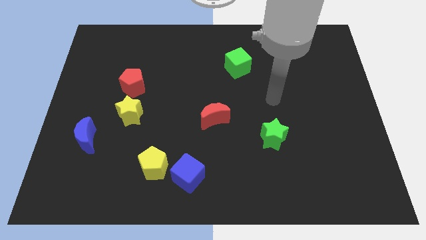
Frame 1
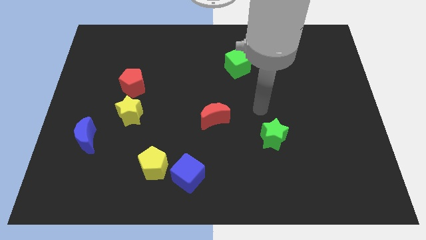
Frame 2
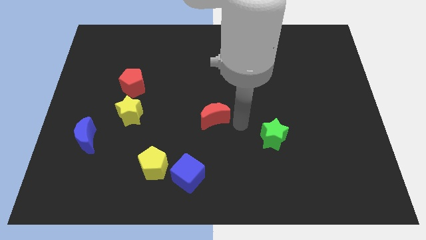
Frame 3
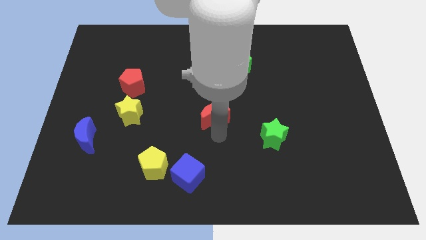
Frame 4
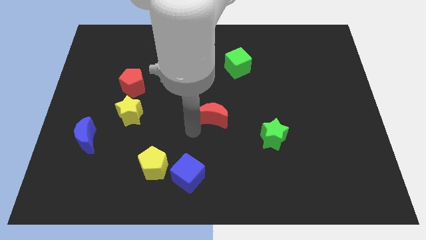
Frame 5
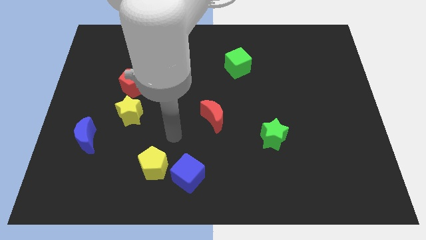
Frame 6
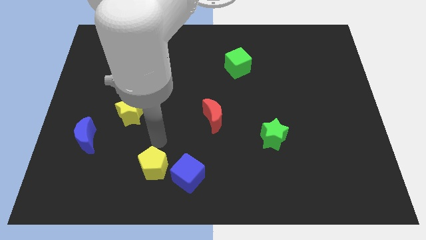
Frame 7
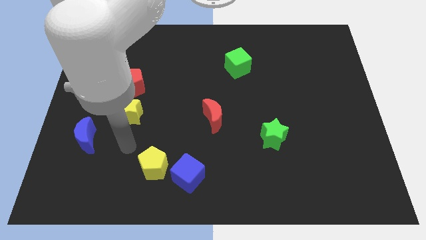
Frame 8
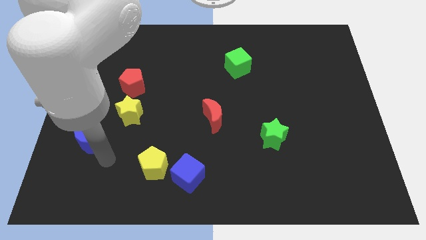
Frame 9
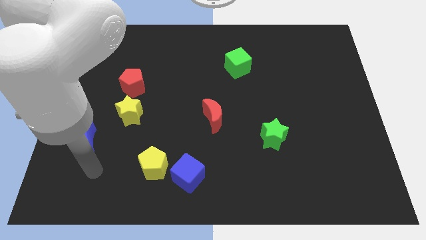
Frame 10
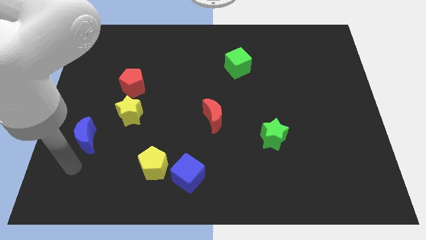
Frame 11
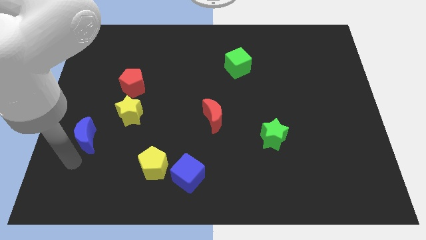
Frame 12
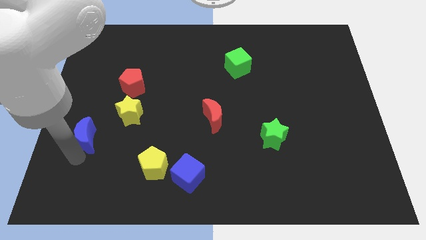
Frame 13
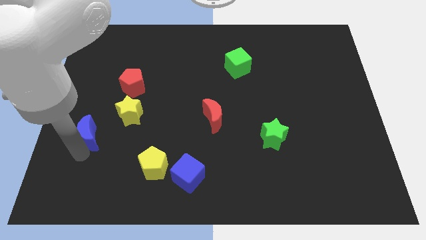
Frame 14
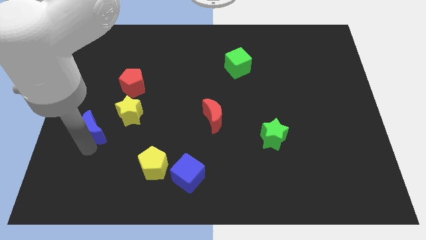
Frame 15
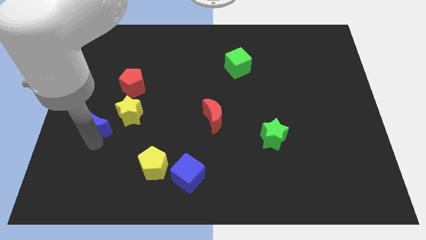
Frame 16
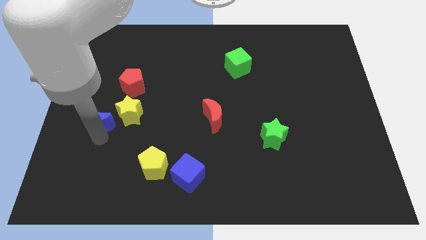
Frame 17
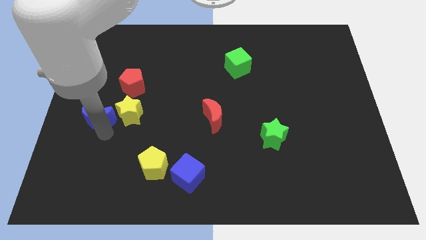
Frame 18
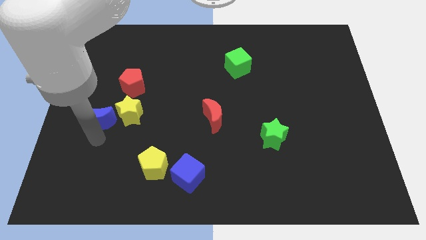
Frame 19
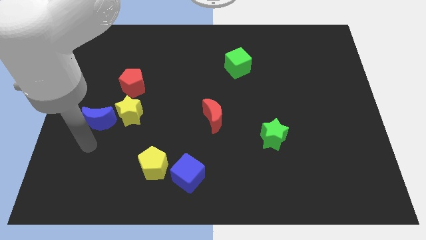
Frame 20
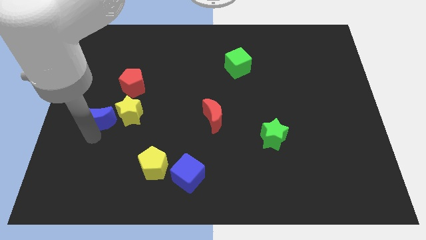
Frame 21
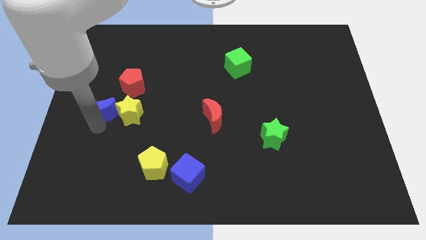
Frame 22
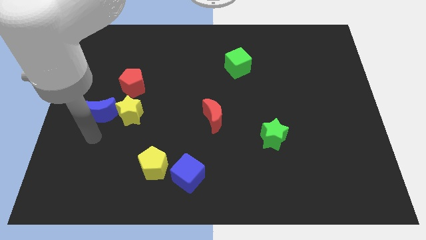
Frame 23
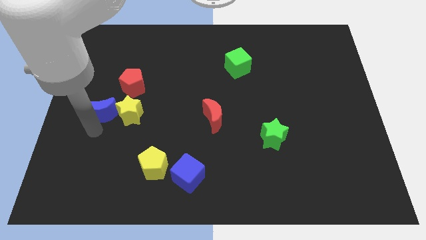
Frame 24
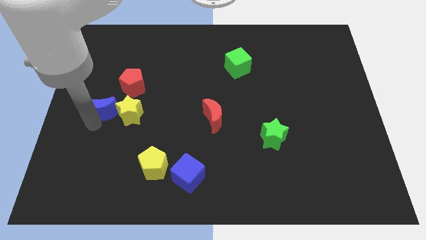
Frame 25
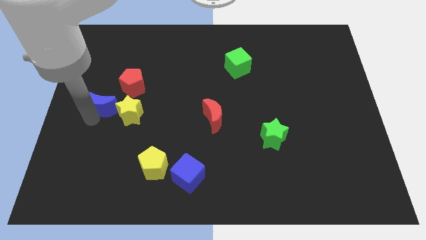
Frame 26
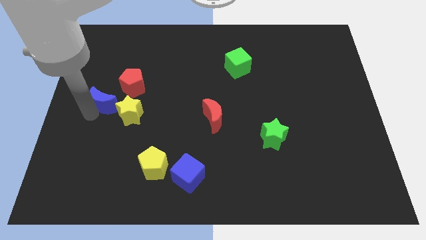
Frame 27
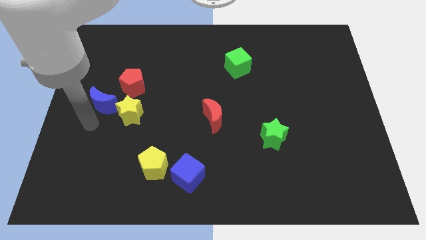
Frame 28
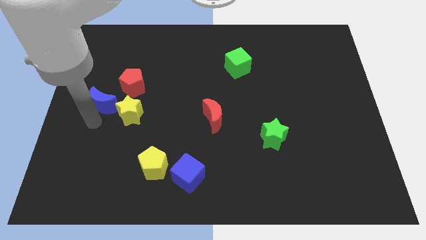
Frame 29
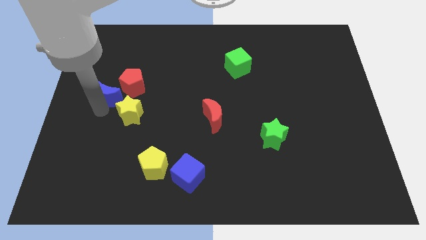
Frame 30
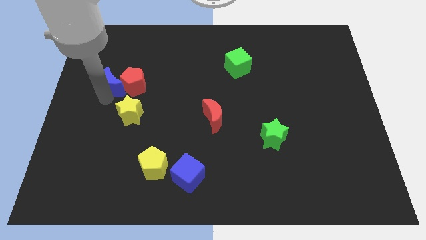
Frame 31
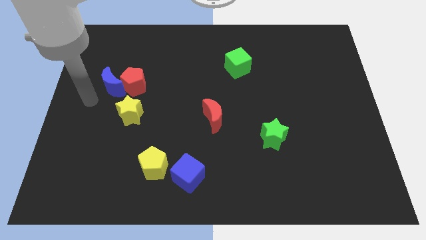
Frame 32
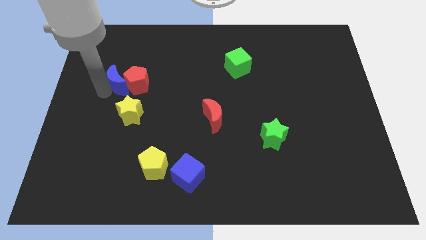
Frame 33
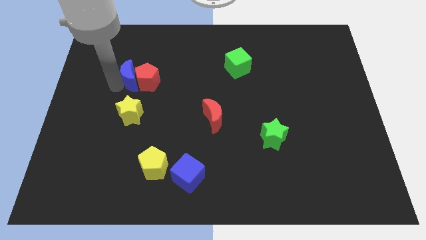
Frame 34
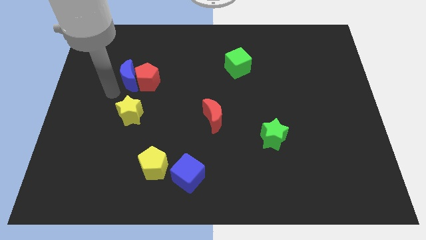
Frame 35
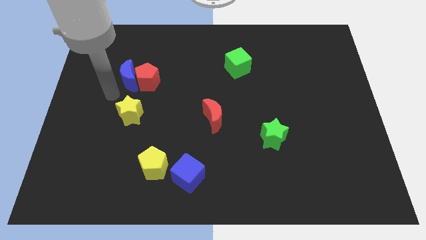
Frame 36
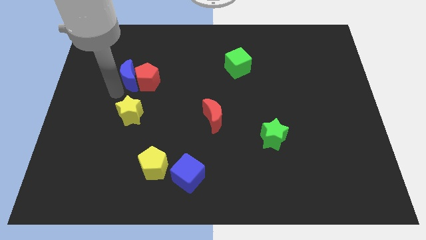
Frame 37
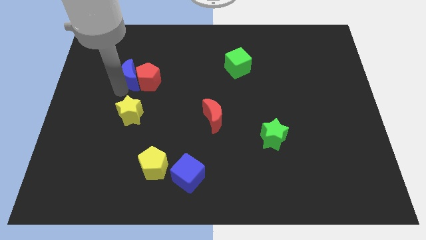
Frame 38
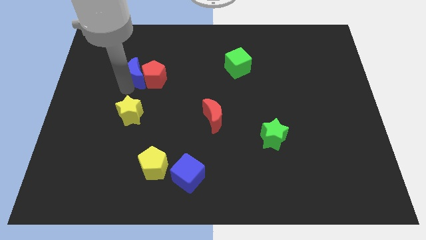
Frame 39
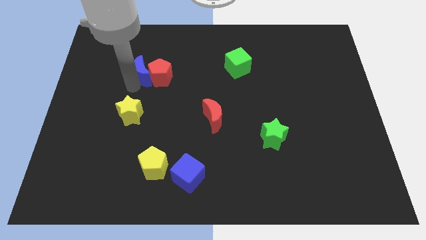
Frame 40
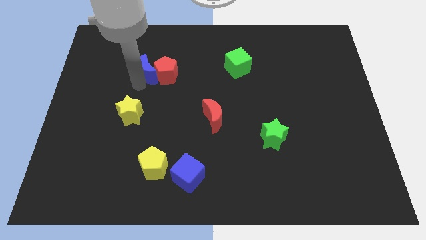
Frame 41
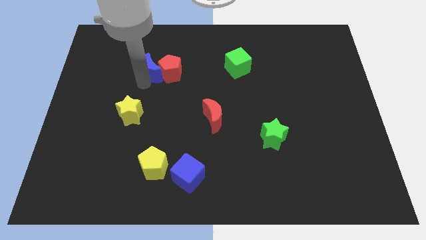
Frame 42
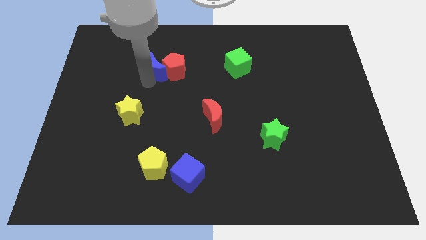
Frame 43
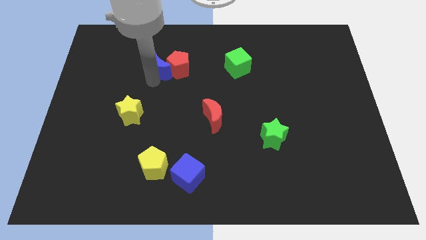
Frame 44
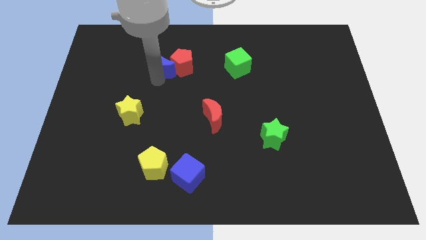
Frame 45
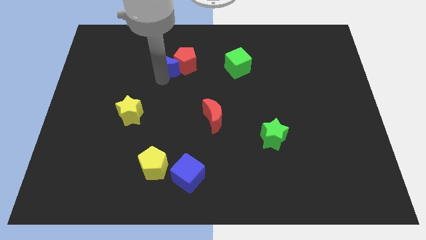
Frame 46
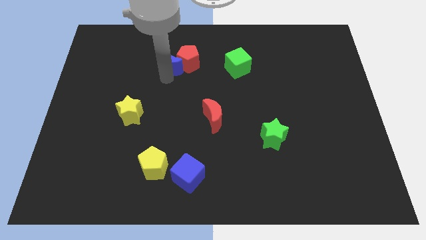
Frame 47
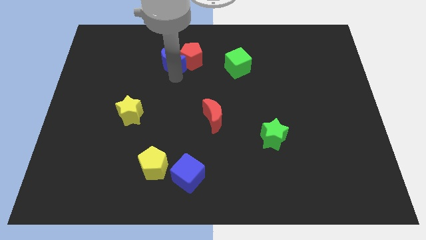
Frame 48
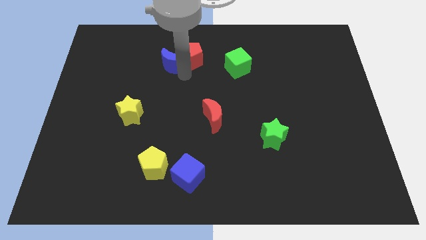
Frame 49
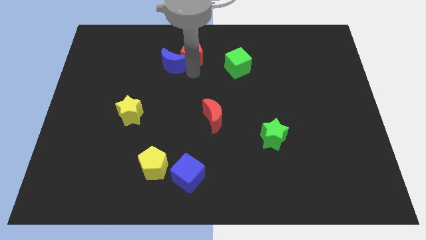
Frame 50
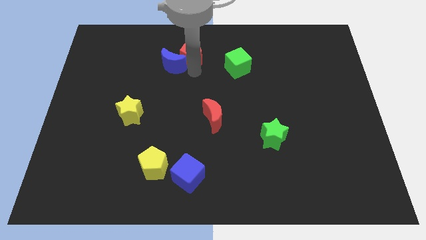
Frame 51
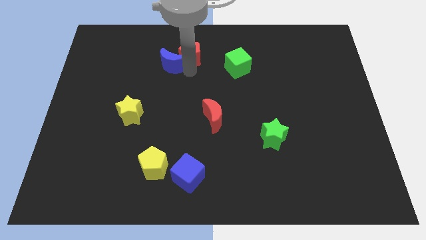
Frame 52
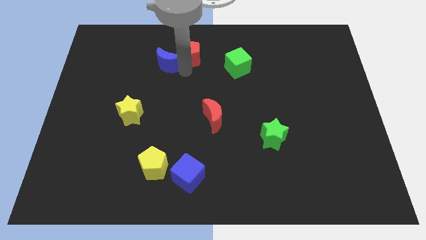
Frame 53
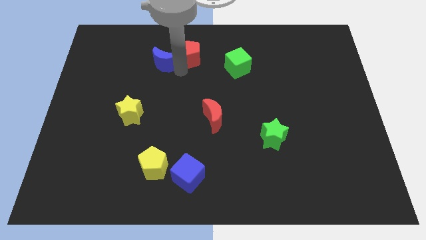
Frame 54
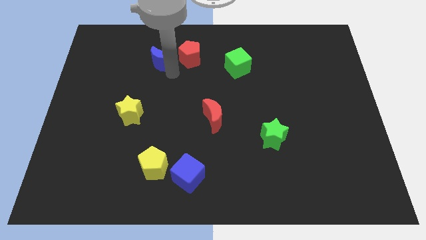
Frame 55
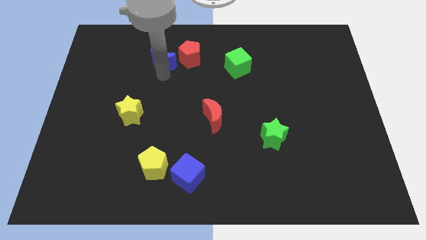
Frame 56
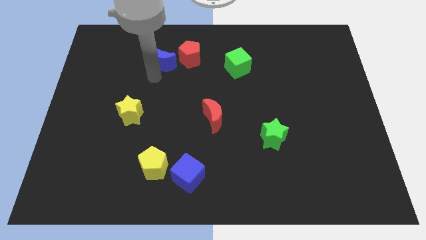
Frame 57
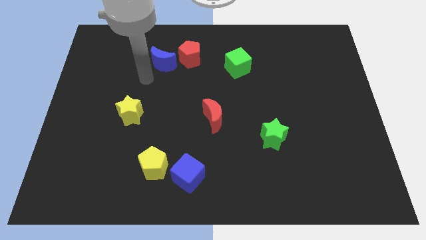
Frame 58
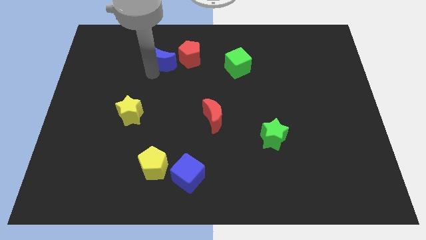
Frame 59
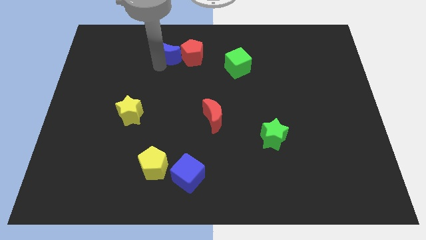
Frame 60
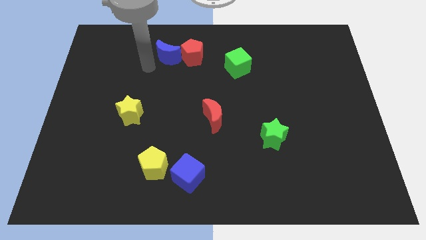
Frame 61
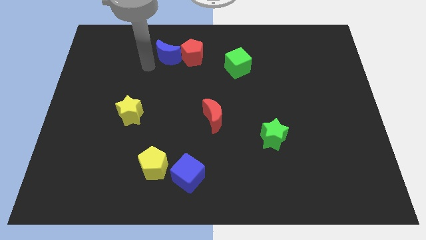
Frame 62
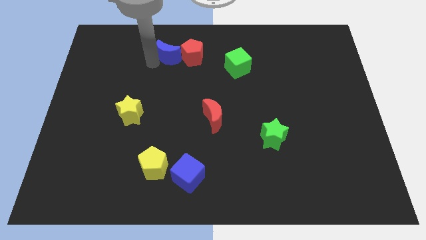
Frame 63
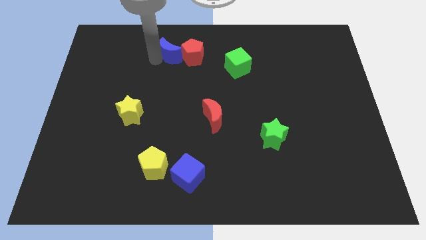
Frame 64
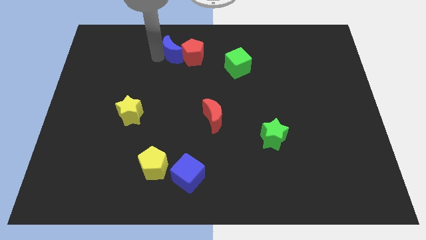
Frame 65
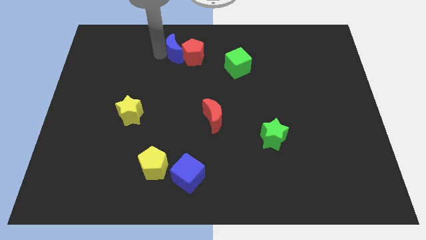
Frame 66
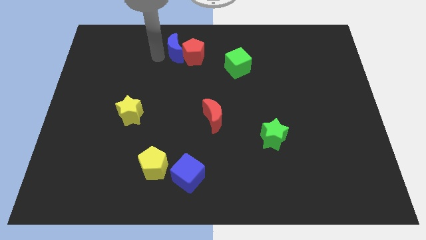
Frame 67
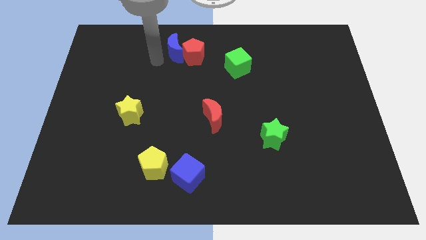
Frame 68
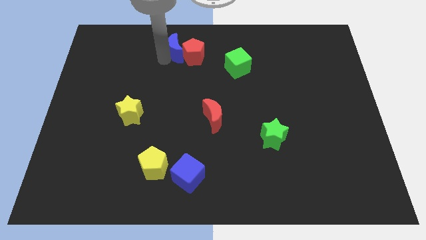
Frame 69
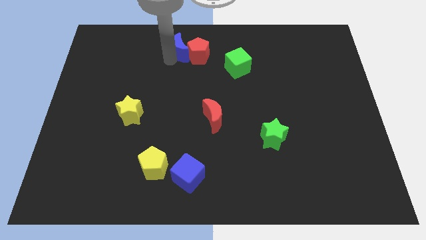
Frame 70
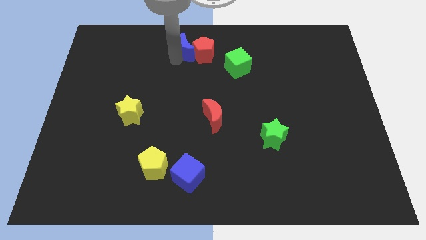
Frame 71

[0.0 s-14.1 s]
move the blue moon to the top side

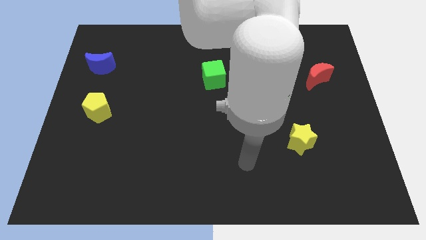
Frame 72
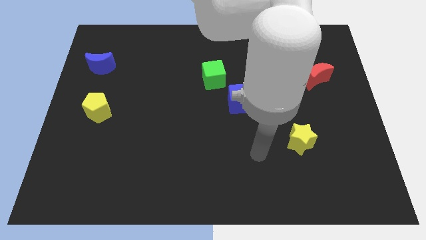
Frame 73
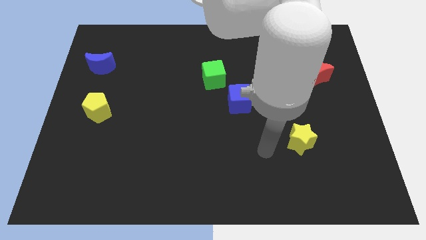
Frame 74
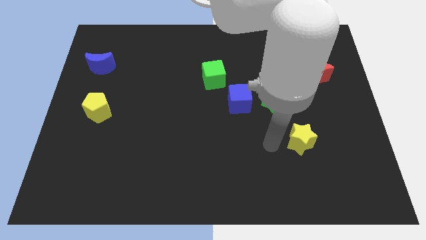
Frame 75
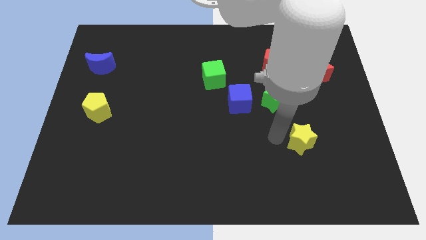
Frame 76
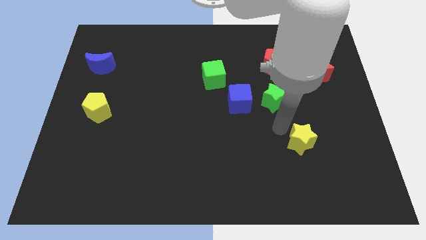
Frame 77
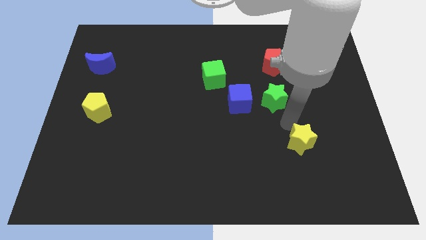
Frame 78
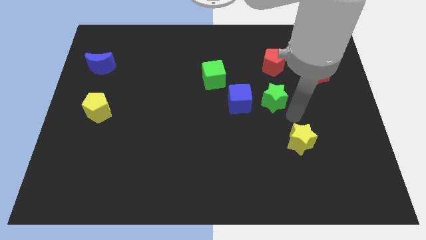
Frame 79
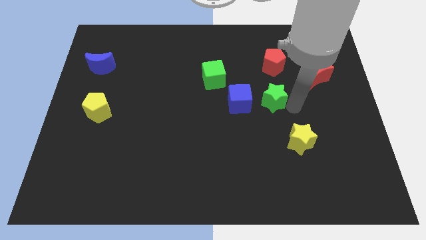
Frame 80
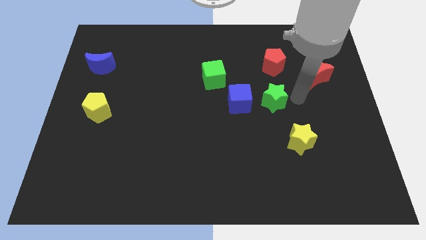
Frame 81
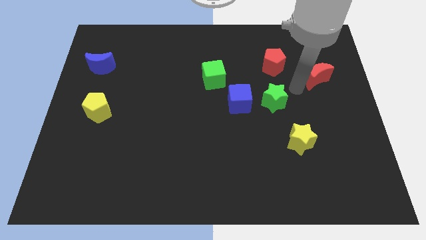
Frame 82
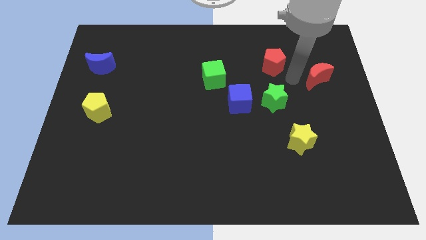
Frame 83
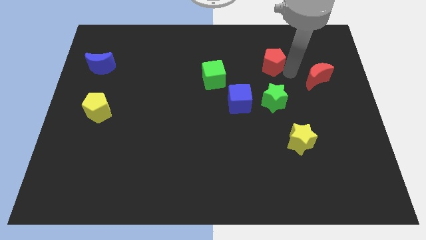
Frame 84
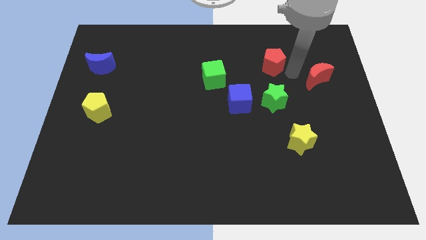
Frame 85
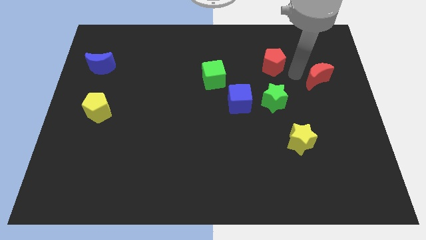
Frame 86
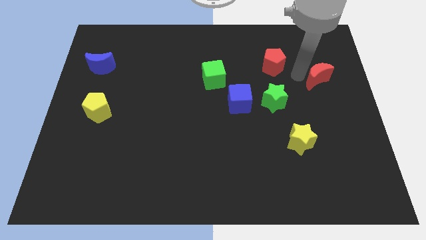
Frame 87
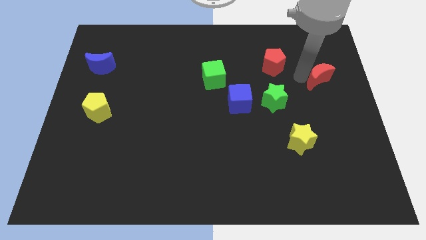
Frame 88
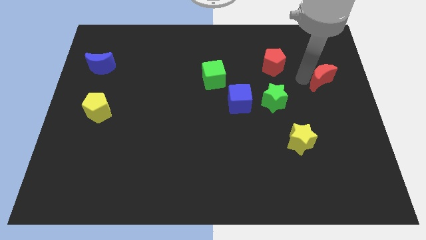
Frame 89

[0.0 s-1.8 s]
slide the red moon to the right side of the board

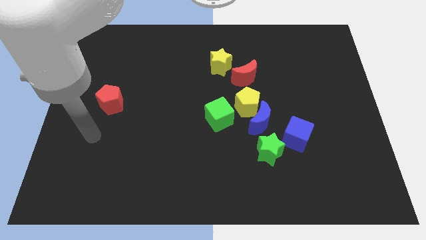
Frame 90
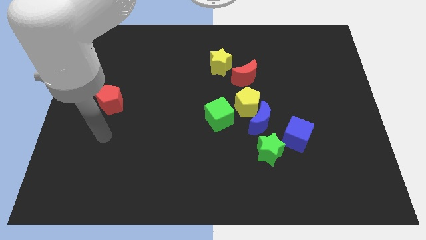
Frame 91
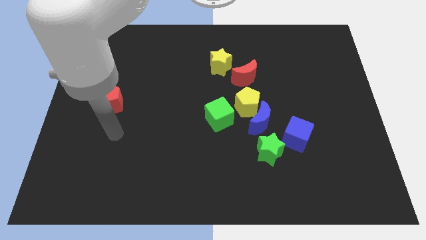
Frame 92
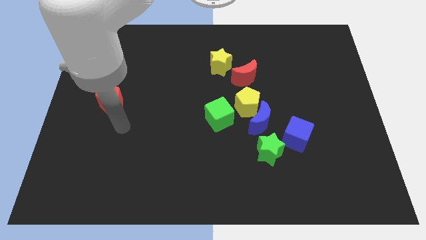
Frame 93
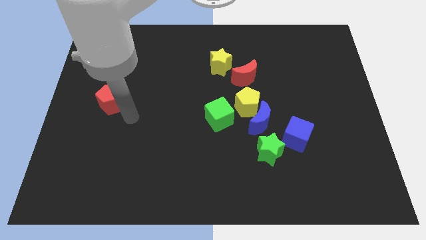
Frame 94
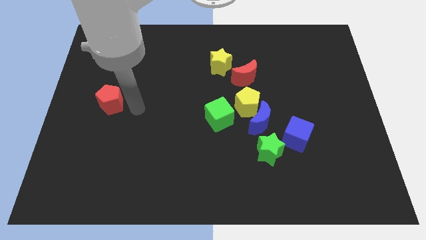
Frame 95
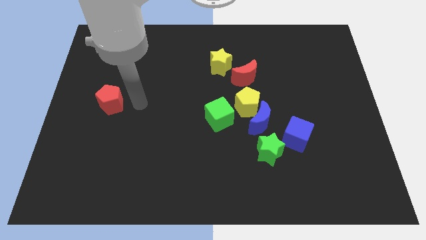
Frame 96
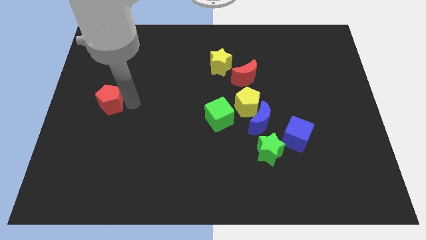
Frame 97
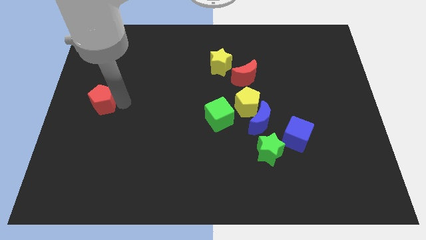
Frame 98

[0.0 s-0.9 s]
push the red pentagon to the left side
